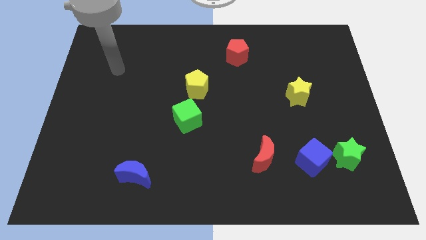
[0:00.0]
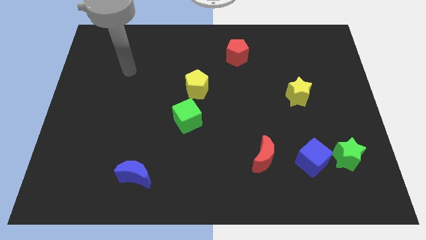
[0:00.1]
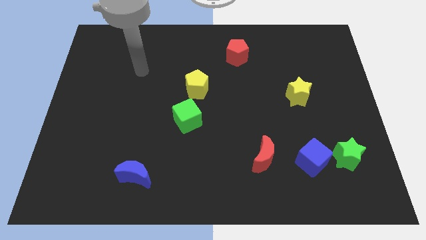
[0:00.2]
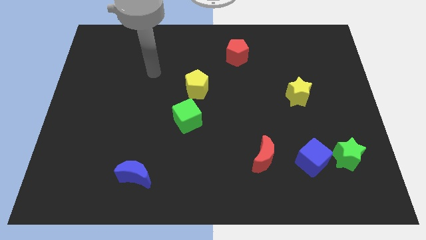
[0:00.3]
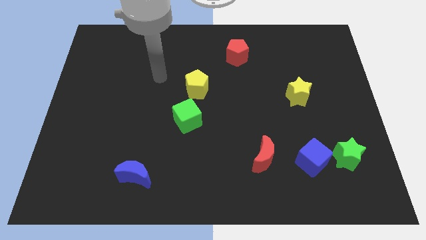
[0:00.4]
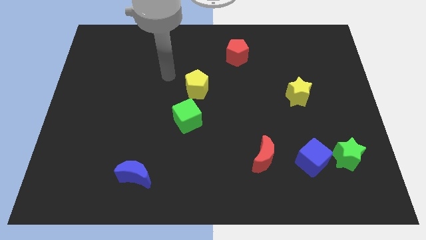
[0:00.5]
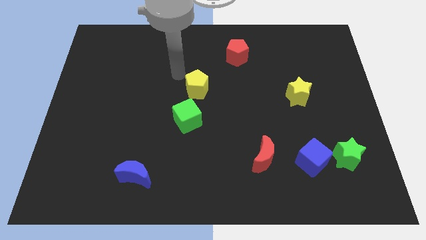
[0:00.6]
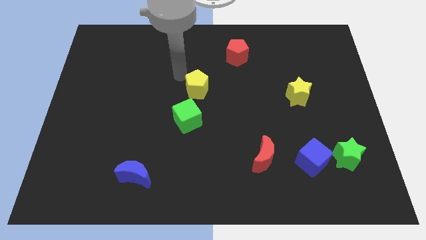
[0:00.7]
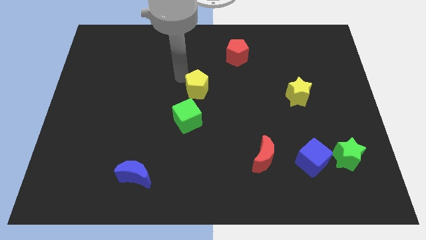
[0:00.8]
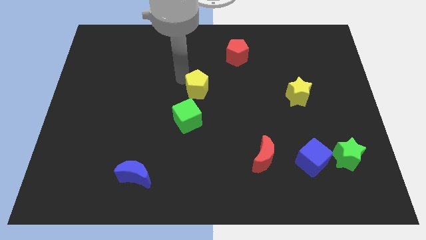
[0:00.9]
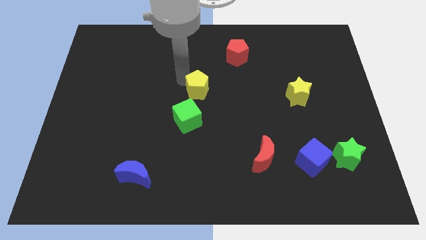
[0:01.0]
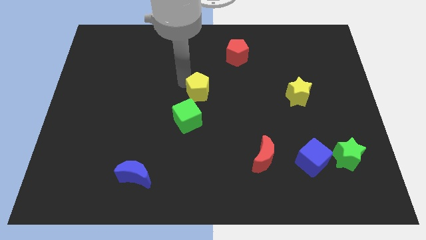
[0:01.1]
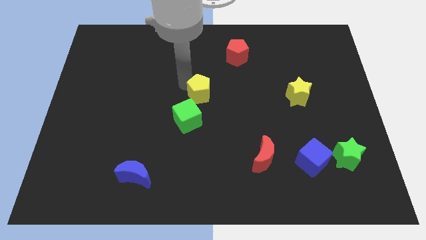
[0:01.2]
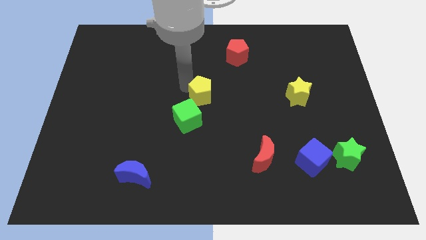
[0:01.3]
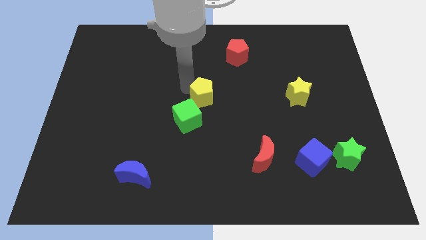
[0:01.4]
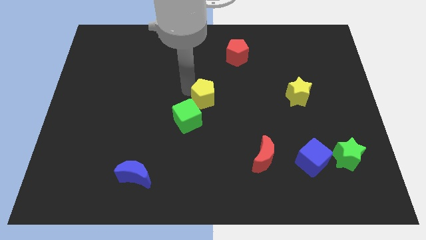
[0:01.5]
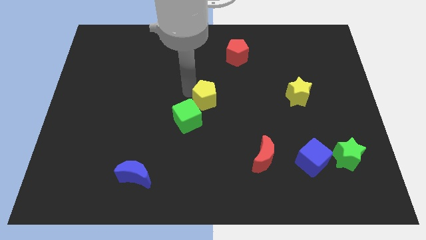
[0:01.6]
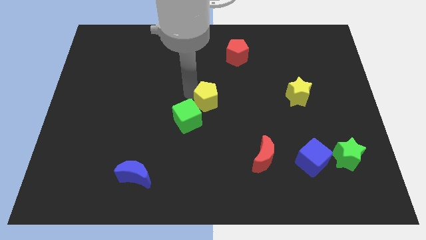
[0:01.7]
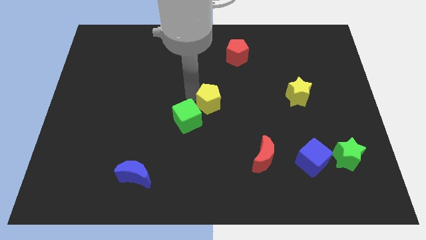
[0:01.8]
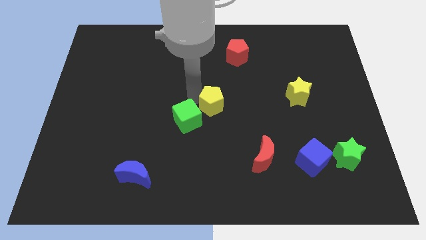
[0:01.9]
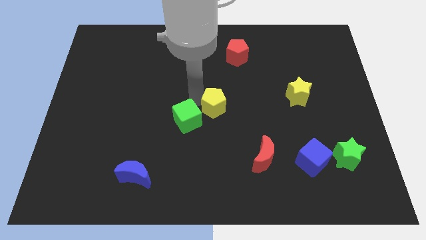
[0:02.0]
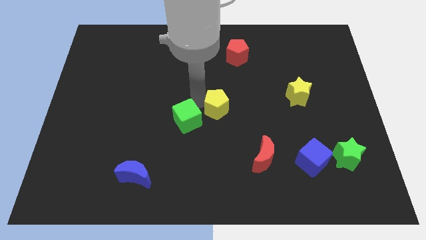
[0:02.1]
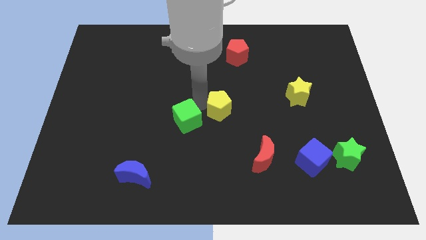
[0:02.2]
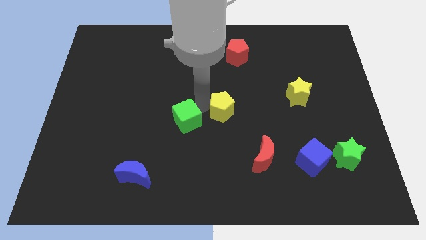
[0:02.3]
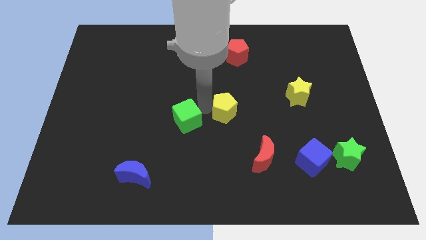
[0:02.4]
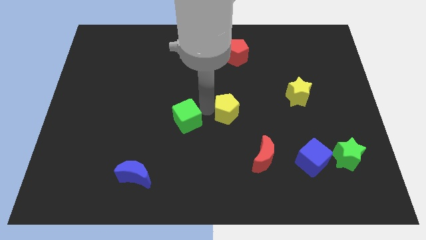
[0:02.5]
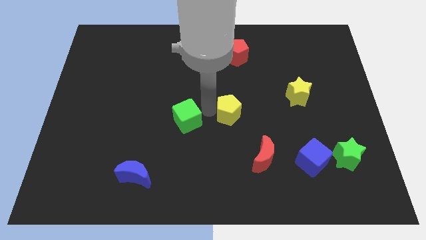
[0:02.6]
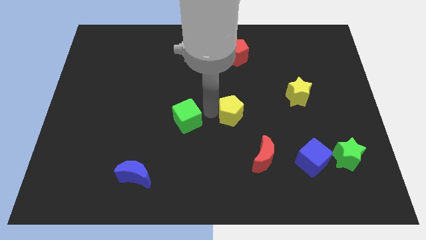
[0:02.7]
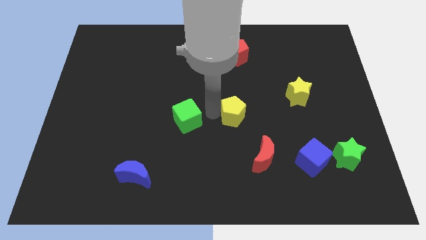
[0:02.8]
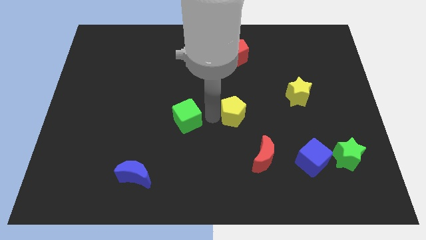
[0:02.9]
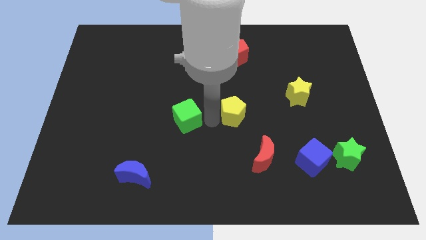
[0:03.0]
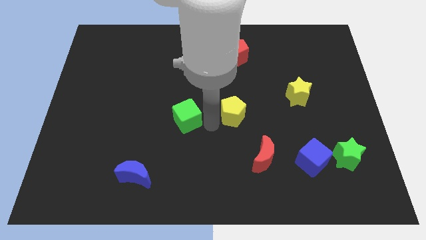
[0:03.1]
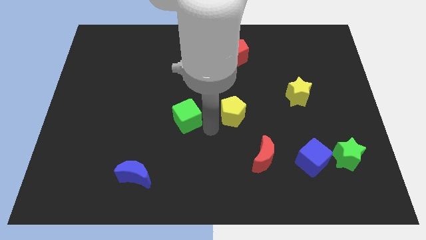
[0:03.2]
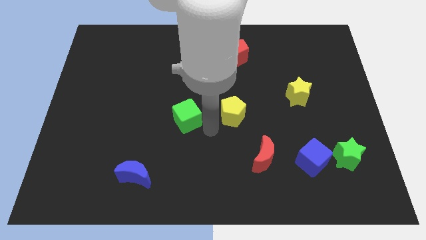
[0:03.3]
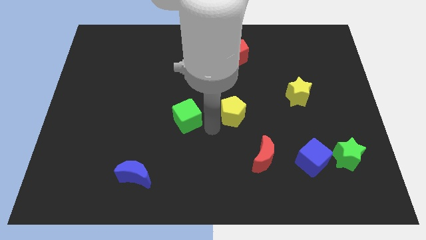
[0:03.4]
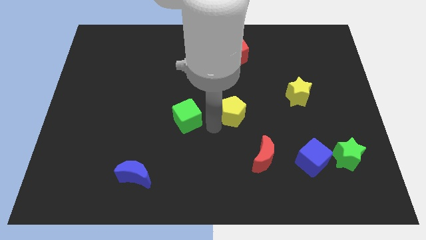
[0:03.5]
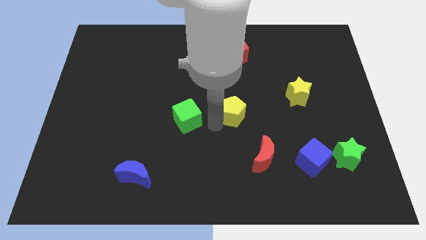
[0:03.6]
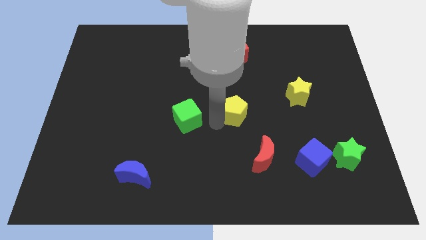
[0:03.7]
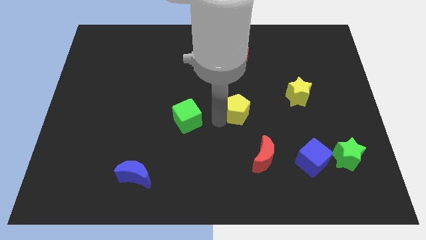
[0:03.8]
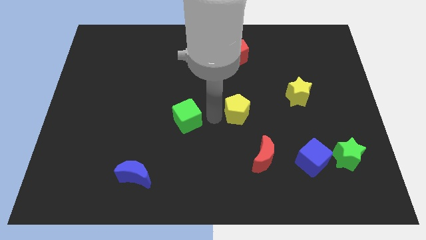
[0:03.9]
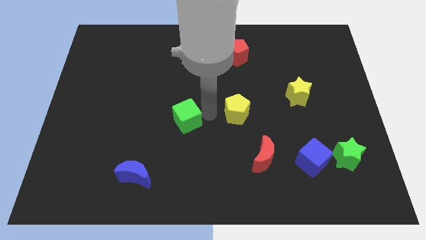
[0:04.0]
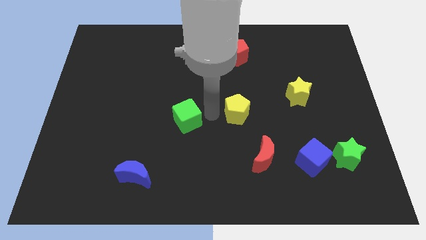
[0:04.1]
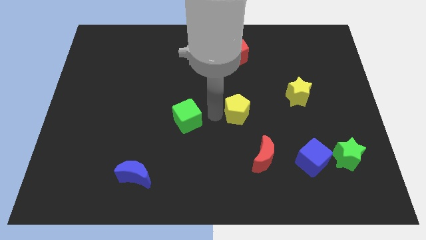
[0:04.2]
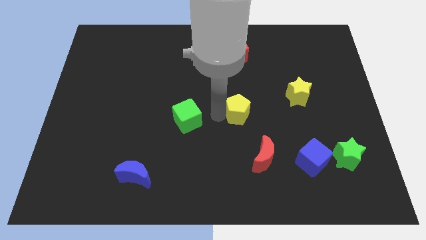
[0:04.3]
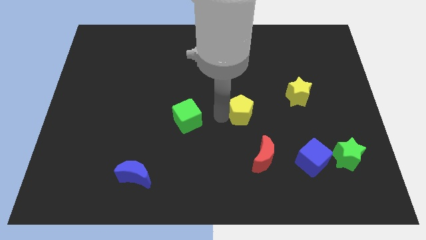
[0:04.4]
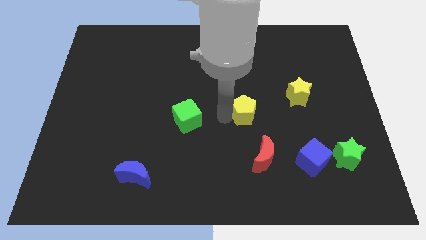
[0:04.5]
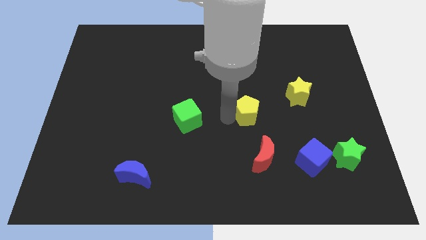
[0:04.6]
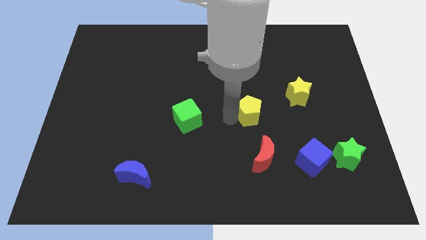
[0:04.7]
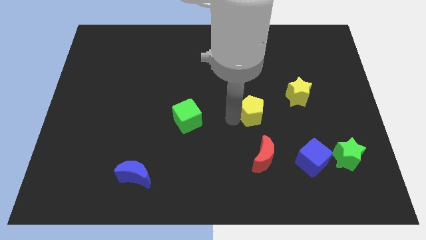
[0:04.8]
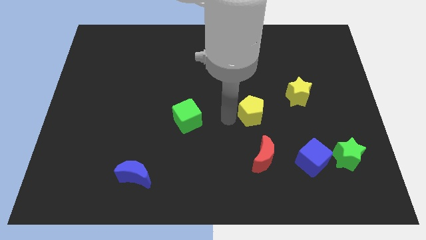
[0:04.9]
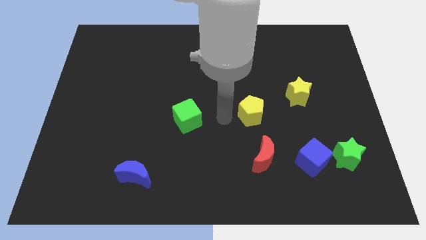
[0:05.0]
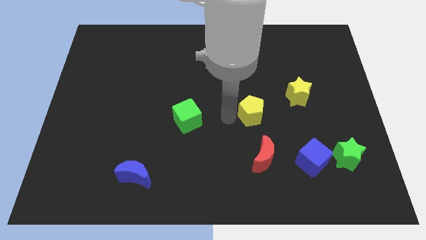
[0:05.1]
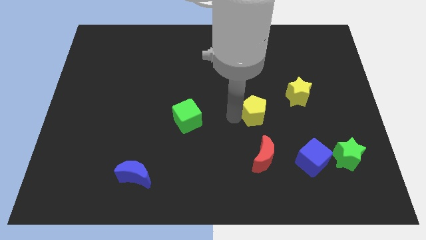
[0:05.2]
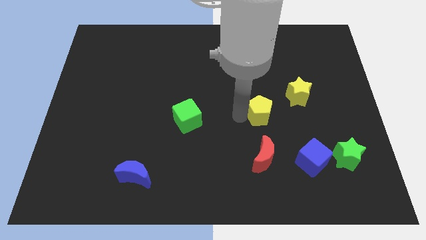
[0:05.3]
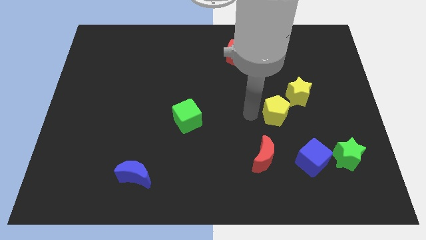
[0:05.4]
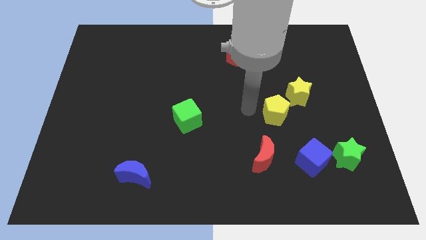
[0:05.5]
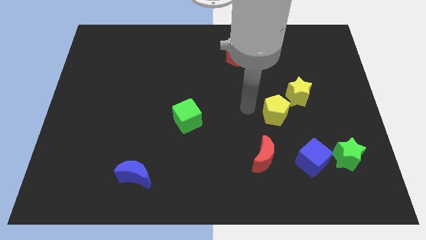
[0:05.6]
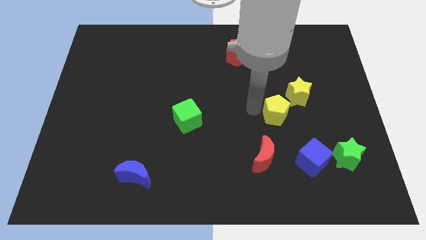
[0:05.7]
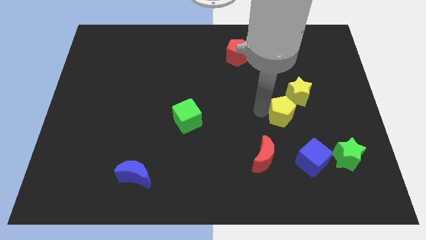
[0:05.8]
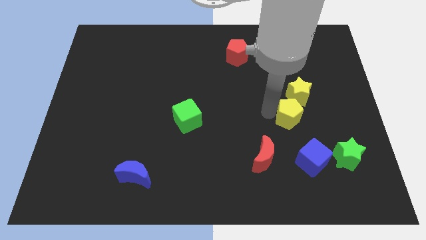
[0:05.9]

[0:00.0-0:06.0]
slide the yellow pentagon to the top side of the blue cube

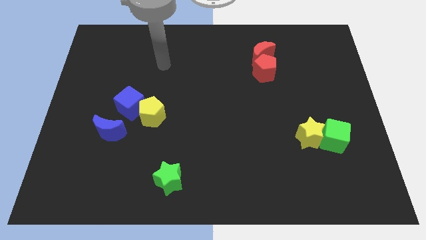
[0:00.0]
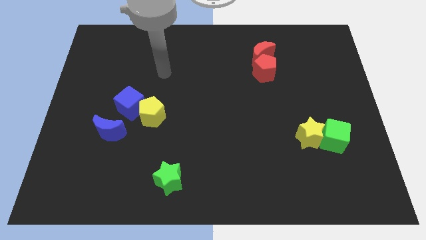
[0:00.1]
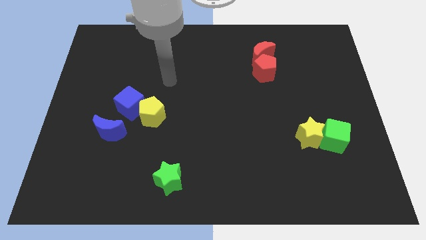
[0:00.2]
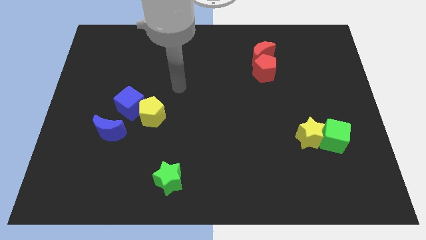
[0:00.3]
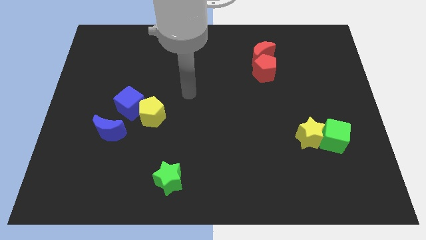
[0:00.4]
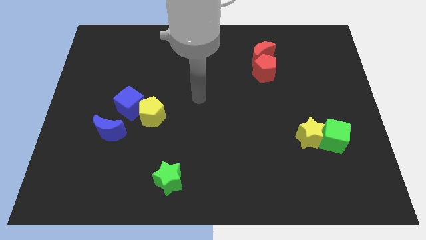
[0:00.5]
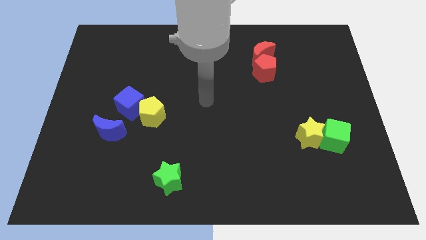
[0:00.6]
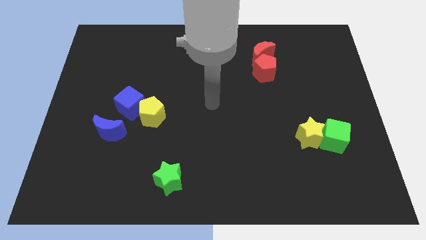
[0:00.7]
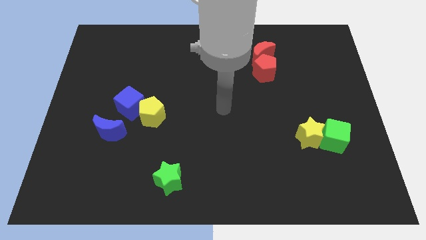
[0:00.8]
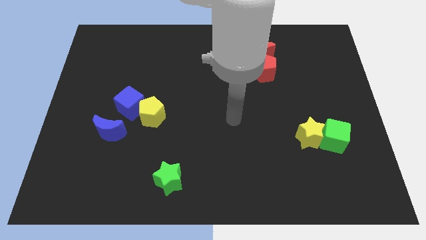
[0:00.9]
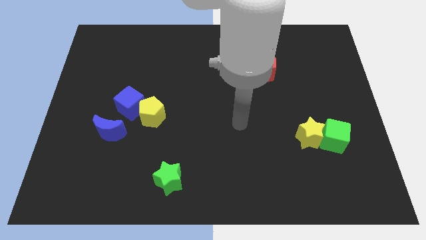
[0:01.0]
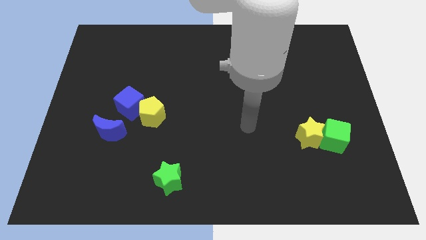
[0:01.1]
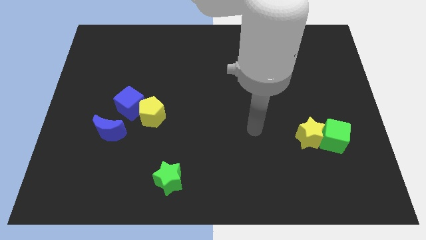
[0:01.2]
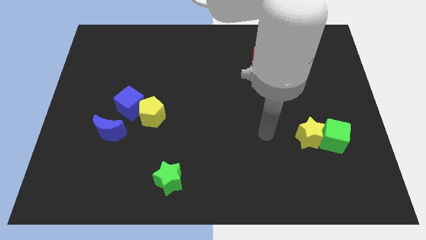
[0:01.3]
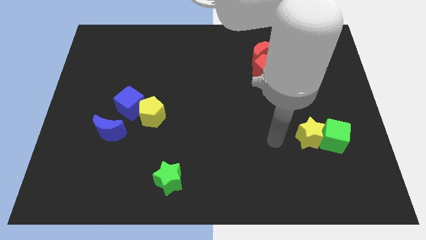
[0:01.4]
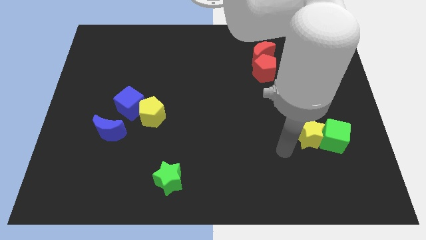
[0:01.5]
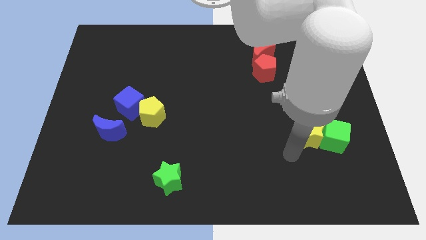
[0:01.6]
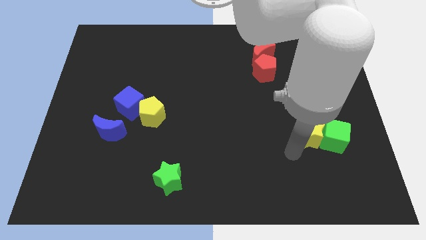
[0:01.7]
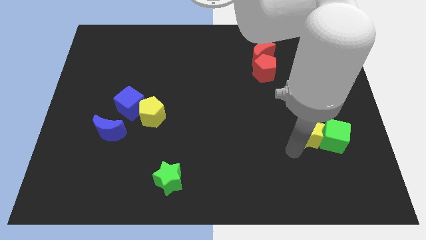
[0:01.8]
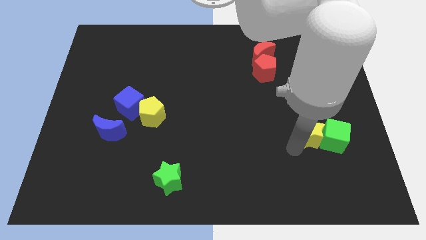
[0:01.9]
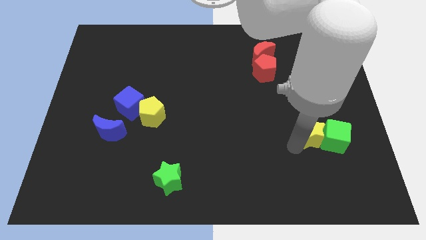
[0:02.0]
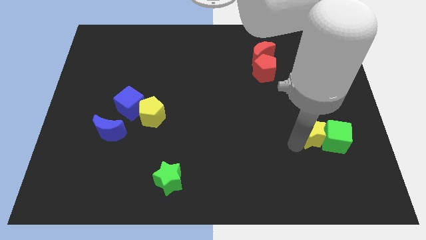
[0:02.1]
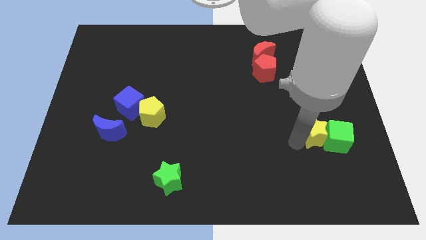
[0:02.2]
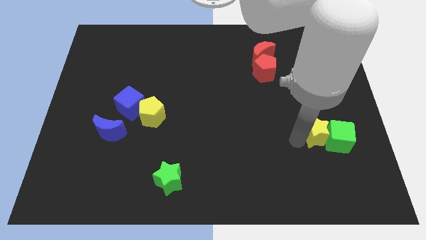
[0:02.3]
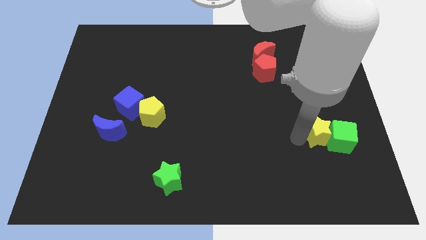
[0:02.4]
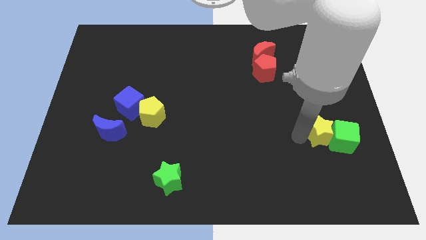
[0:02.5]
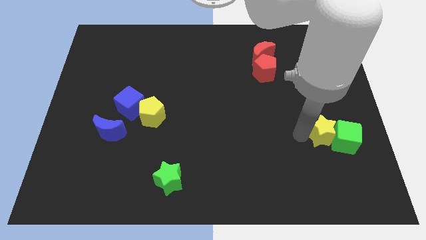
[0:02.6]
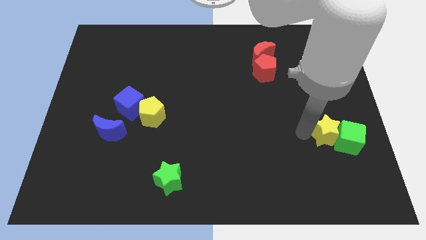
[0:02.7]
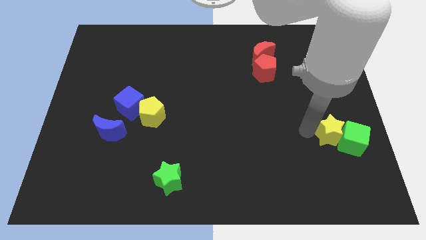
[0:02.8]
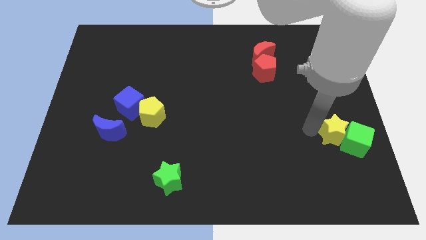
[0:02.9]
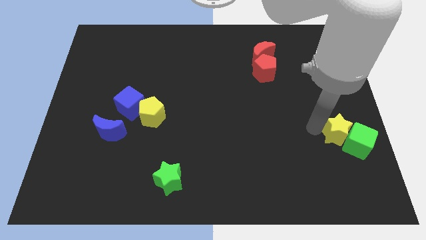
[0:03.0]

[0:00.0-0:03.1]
slide the yellow star to the top side of the green cube
